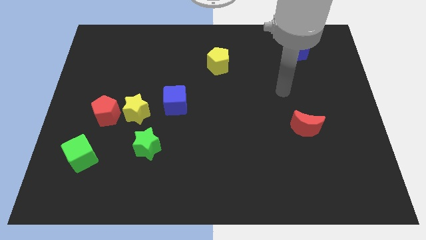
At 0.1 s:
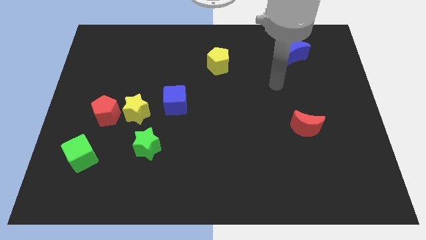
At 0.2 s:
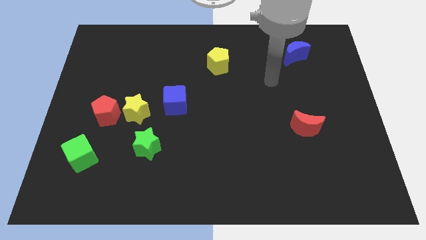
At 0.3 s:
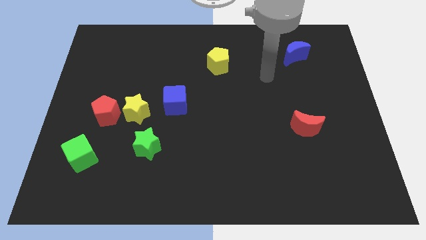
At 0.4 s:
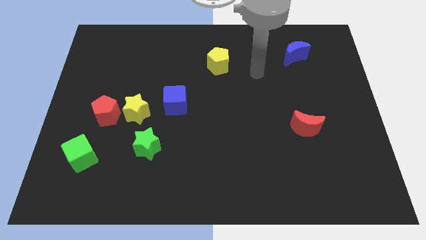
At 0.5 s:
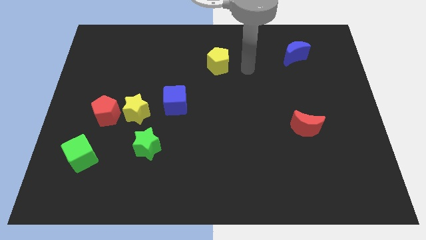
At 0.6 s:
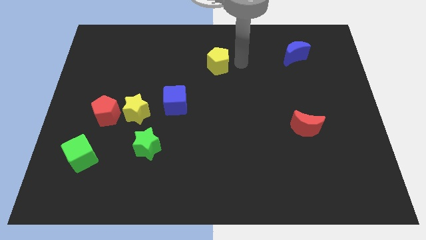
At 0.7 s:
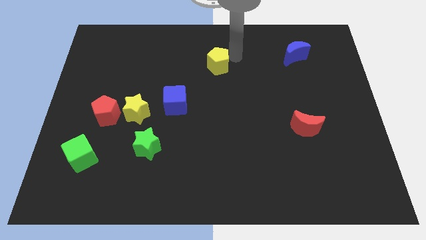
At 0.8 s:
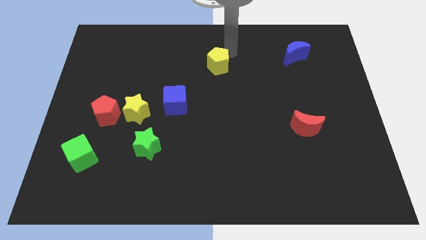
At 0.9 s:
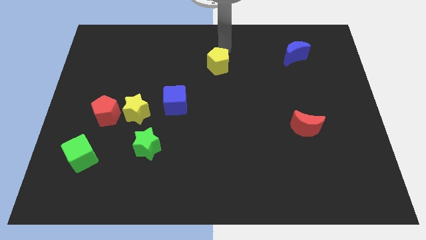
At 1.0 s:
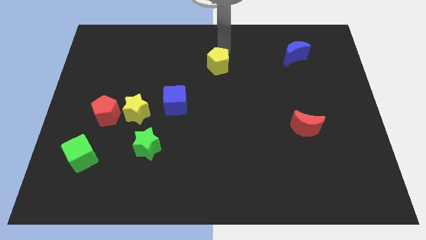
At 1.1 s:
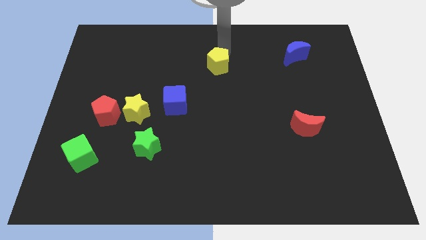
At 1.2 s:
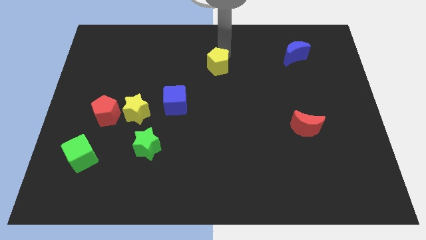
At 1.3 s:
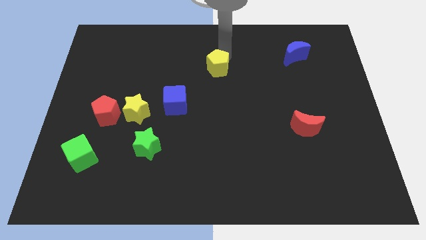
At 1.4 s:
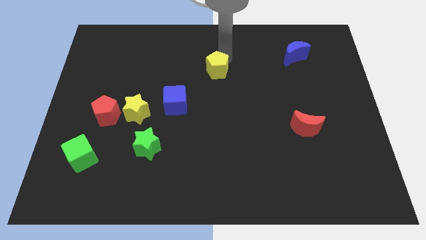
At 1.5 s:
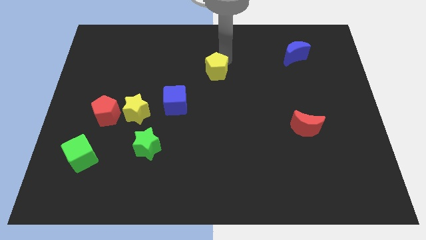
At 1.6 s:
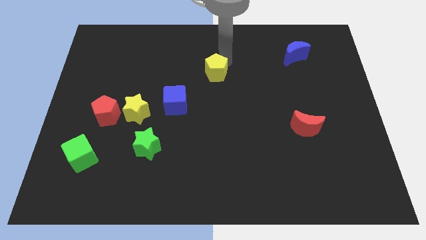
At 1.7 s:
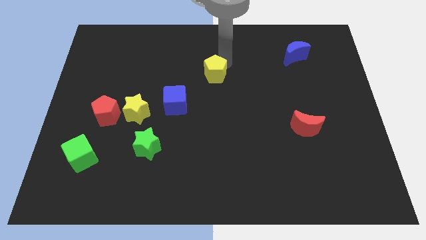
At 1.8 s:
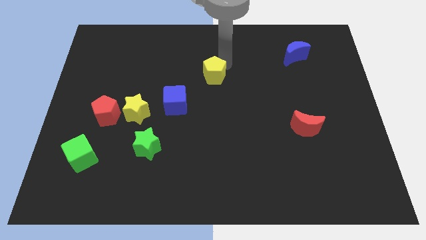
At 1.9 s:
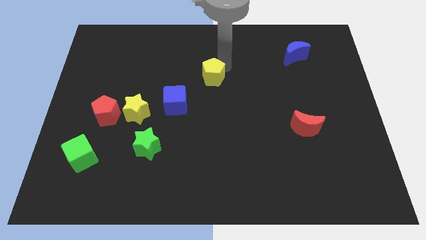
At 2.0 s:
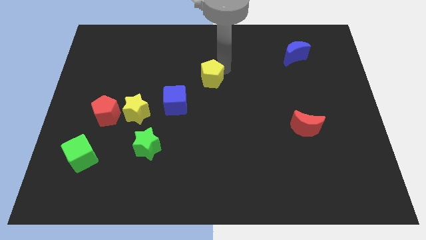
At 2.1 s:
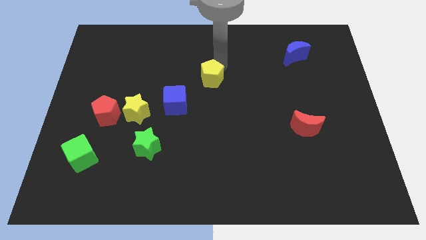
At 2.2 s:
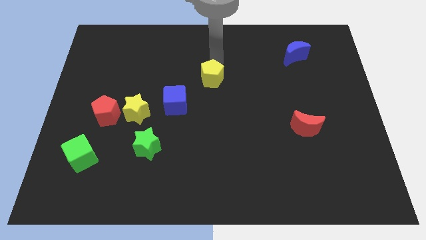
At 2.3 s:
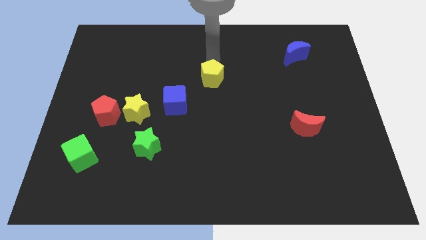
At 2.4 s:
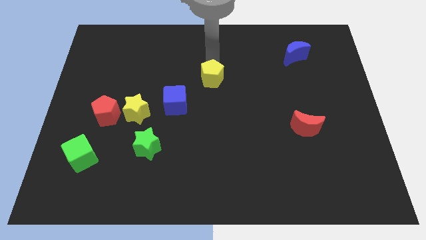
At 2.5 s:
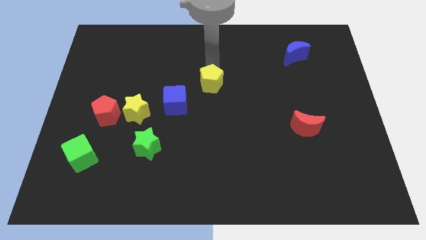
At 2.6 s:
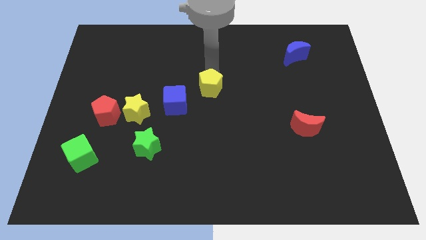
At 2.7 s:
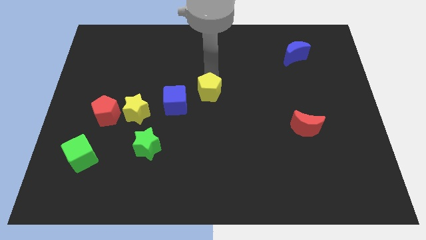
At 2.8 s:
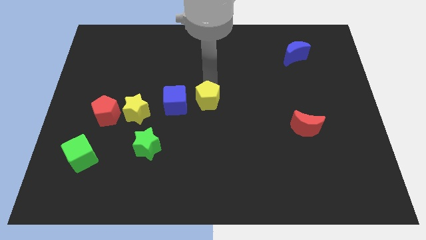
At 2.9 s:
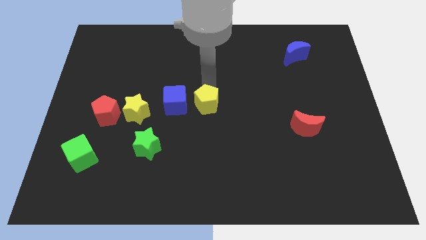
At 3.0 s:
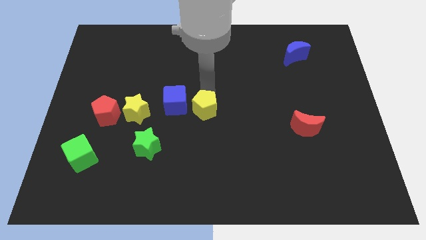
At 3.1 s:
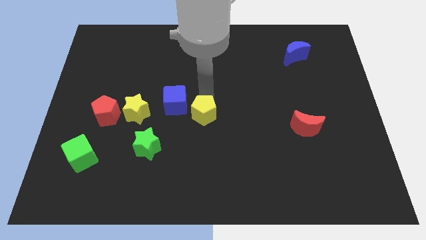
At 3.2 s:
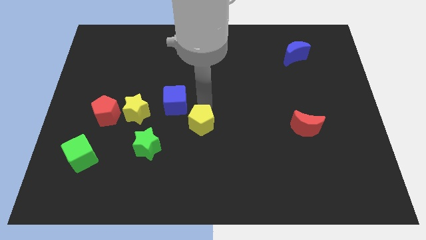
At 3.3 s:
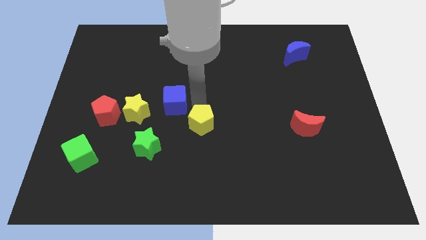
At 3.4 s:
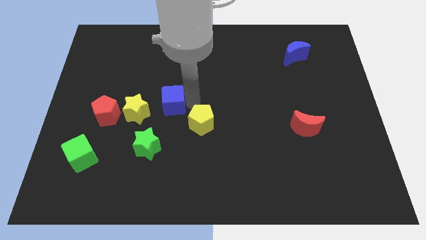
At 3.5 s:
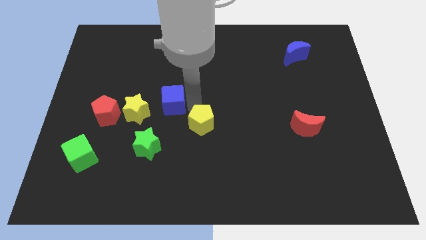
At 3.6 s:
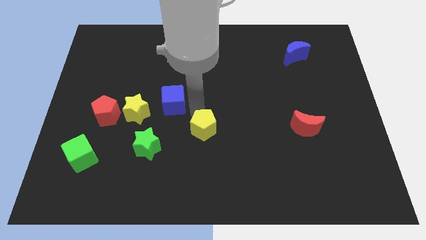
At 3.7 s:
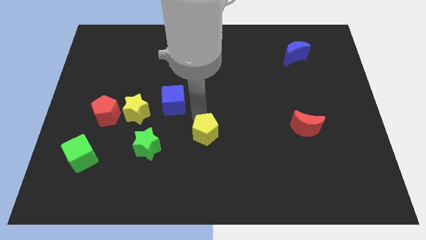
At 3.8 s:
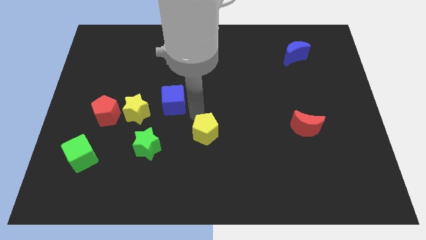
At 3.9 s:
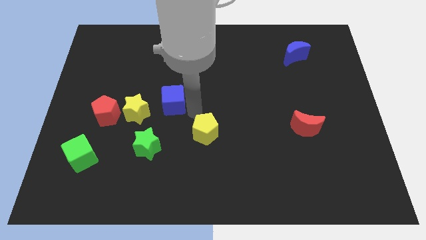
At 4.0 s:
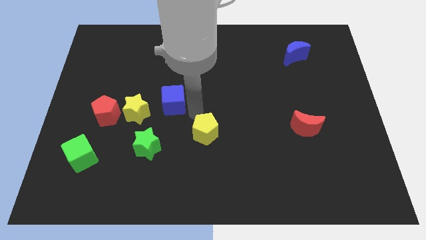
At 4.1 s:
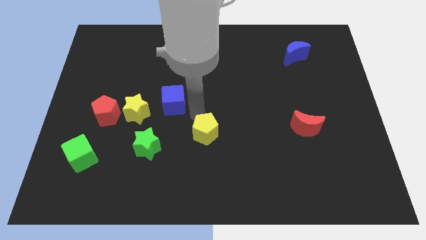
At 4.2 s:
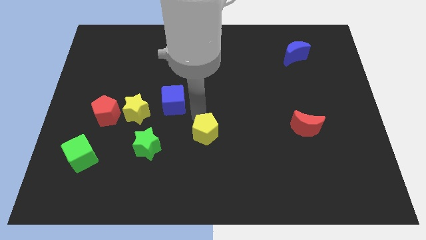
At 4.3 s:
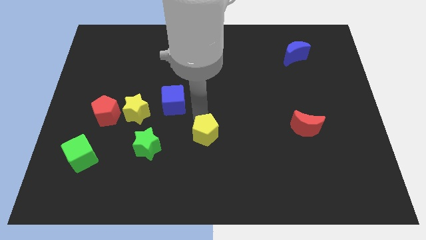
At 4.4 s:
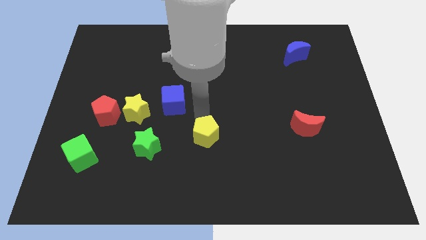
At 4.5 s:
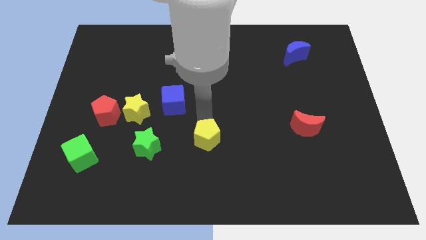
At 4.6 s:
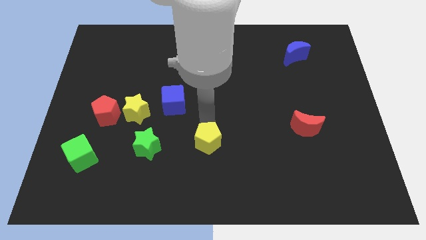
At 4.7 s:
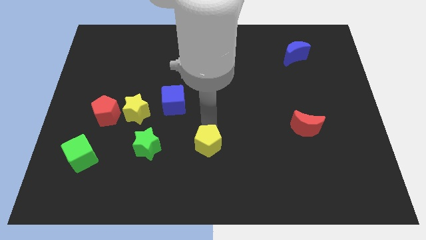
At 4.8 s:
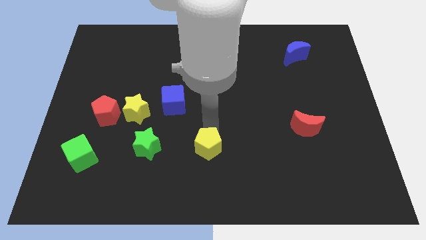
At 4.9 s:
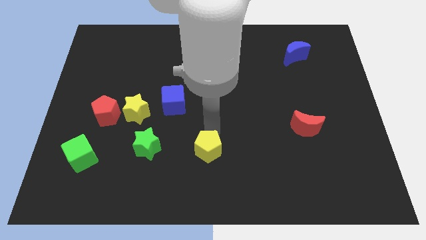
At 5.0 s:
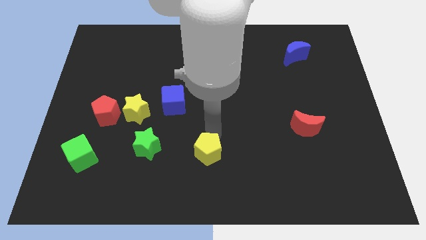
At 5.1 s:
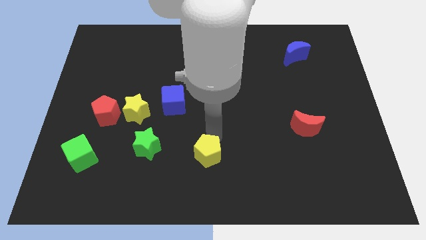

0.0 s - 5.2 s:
put the yellow pentagon to the bottom side

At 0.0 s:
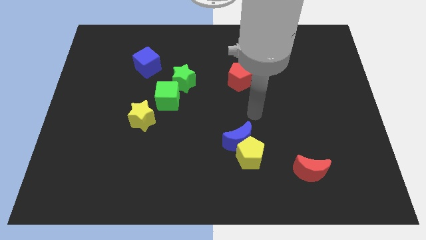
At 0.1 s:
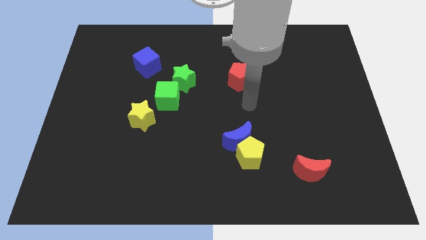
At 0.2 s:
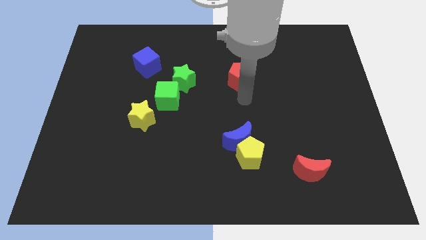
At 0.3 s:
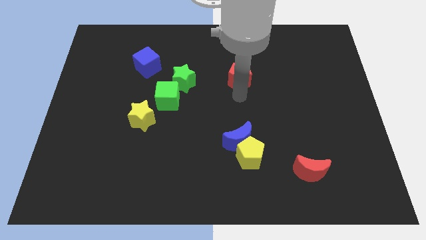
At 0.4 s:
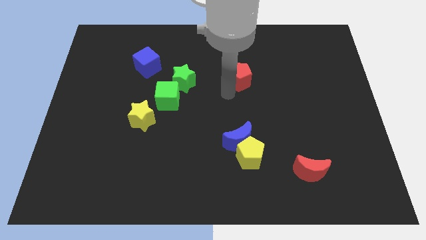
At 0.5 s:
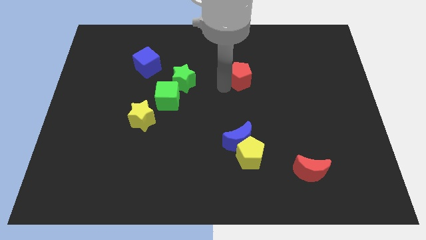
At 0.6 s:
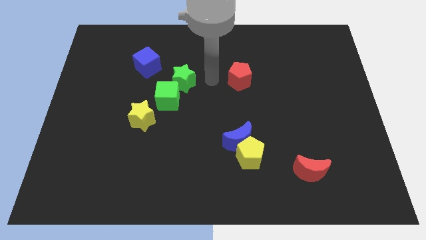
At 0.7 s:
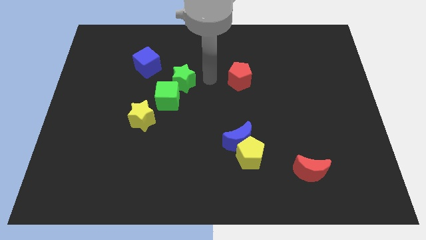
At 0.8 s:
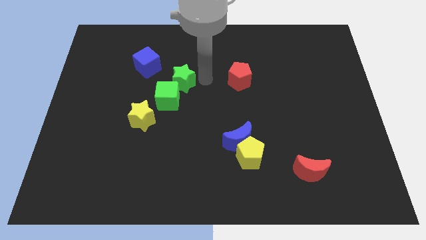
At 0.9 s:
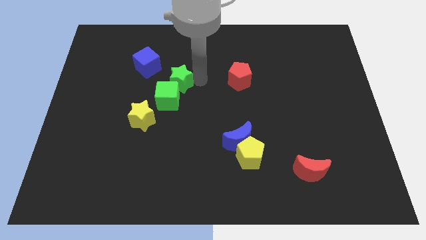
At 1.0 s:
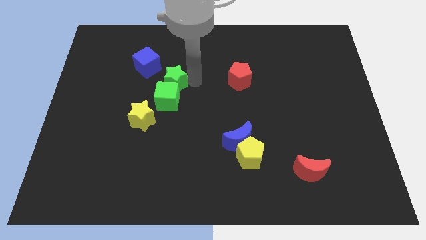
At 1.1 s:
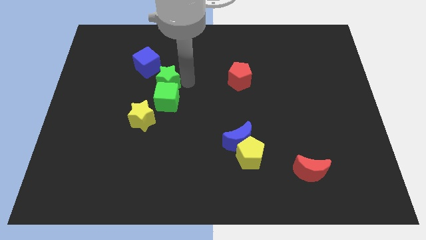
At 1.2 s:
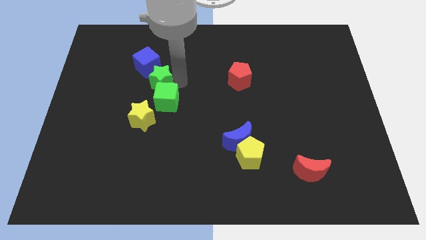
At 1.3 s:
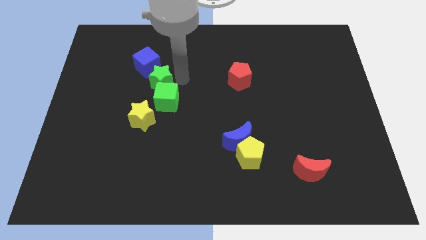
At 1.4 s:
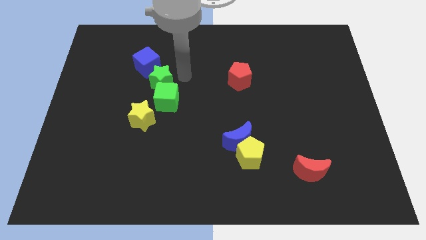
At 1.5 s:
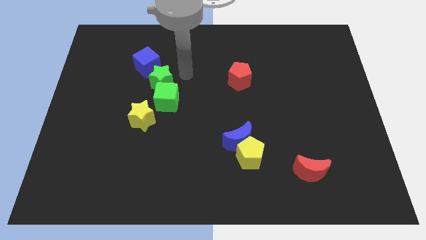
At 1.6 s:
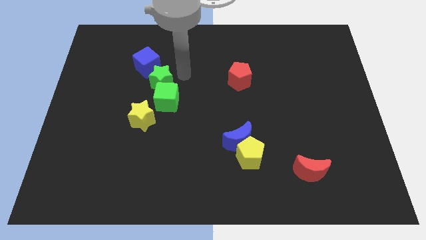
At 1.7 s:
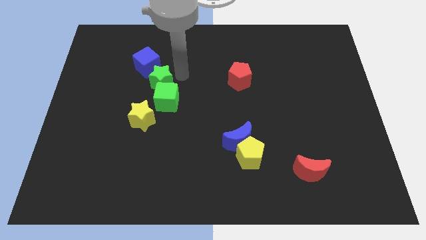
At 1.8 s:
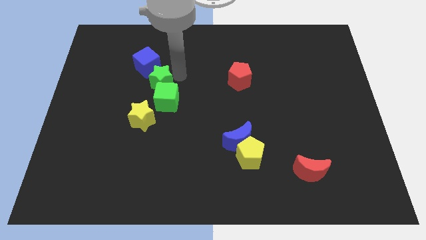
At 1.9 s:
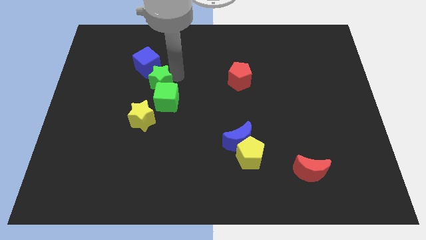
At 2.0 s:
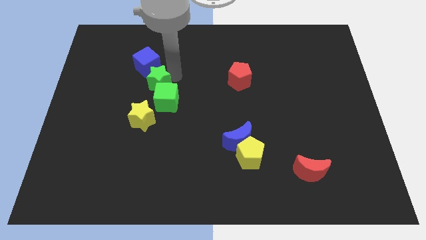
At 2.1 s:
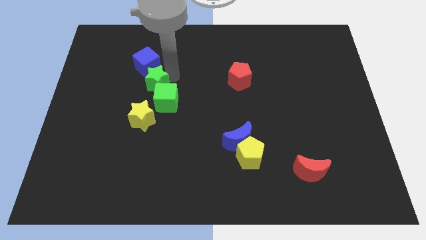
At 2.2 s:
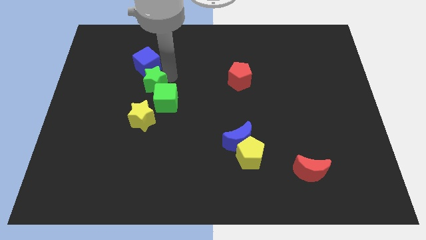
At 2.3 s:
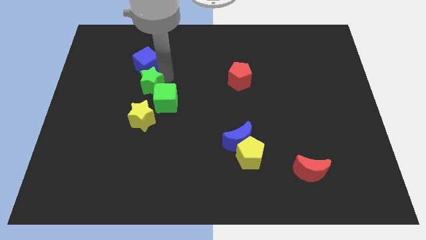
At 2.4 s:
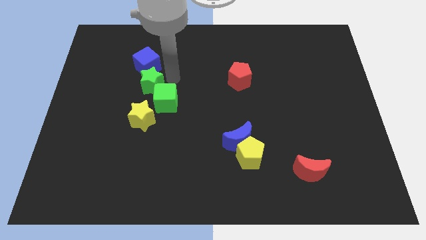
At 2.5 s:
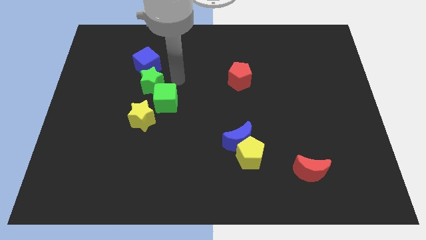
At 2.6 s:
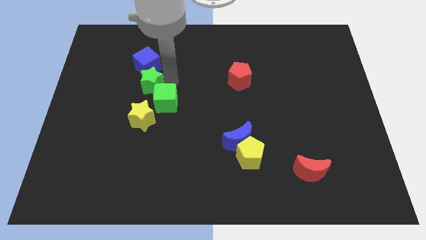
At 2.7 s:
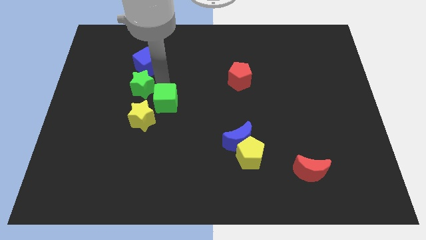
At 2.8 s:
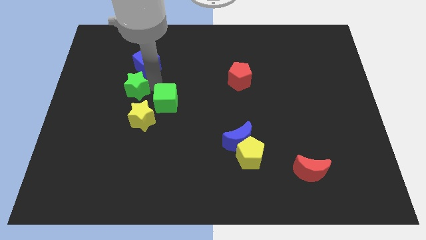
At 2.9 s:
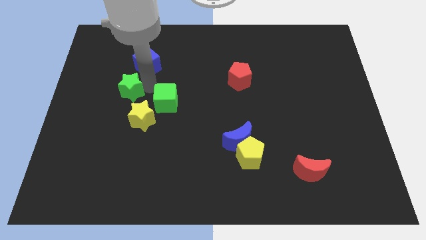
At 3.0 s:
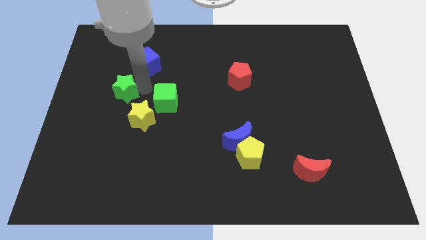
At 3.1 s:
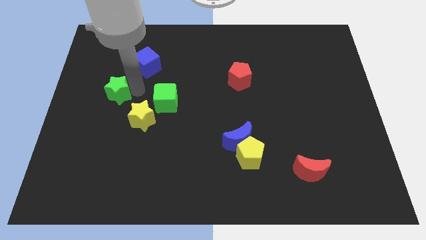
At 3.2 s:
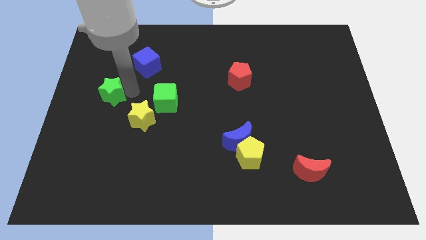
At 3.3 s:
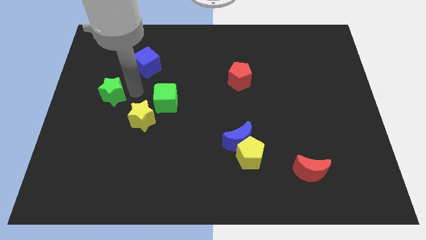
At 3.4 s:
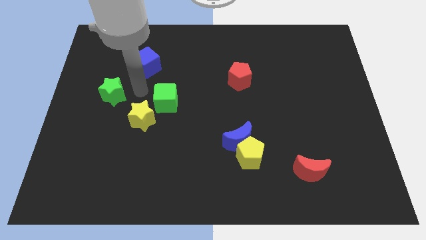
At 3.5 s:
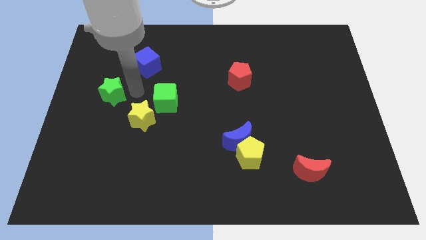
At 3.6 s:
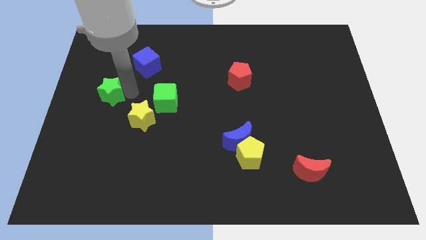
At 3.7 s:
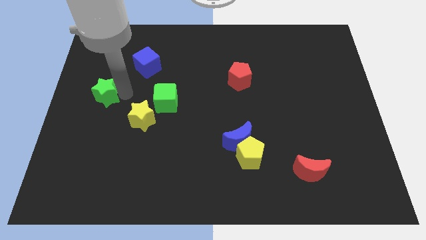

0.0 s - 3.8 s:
slide the green star to the center left
